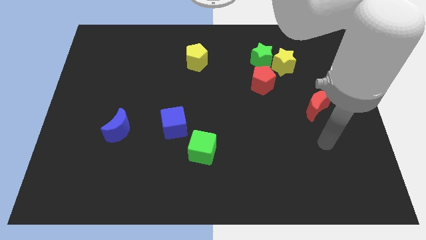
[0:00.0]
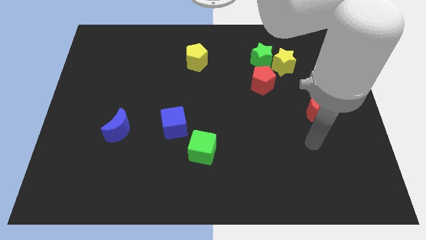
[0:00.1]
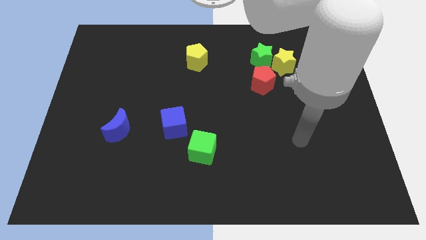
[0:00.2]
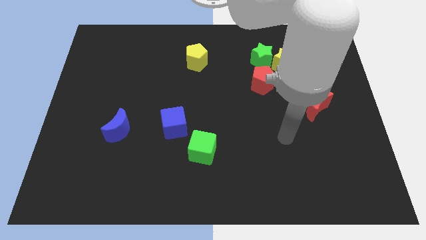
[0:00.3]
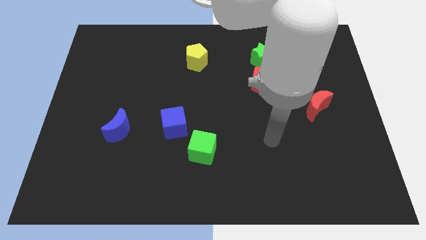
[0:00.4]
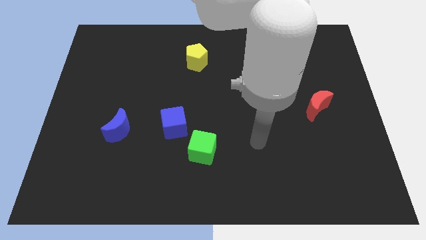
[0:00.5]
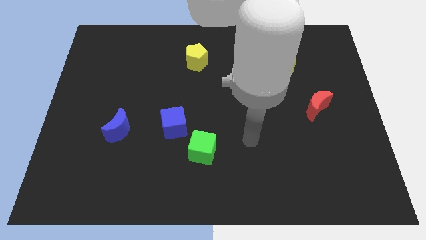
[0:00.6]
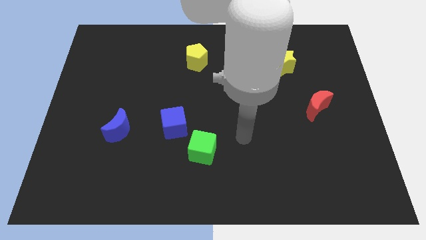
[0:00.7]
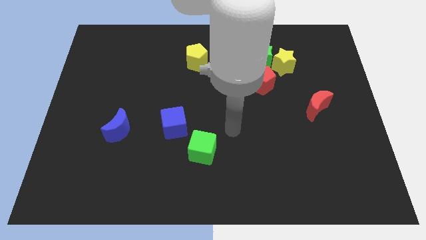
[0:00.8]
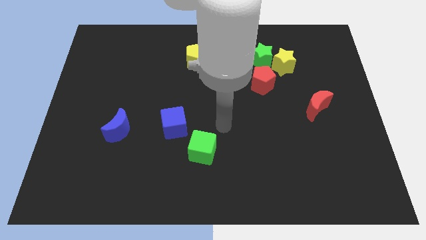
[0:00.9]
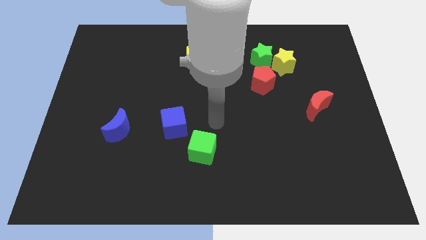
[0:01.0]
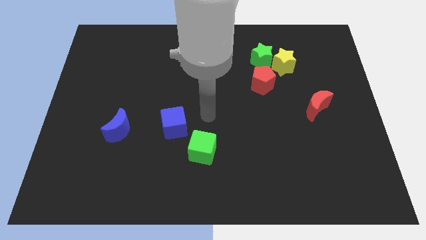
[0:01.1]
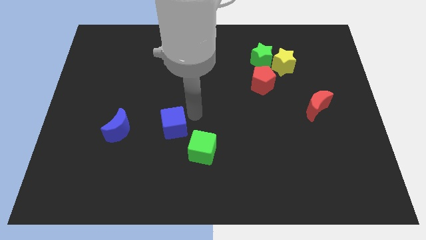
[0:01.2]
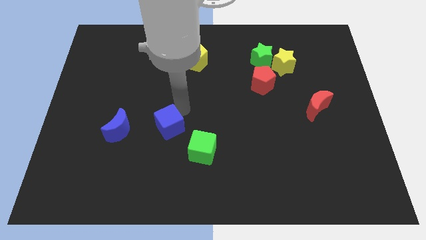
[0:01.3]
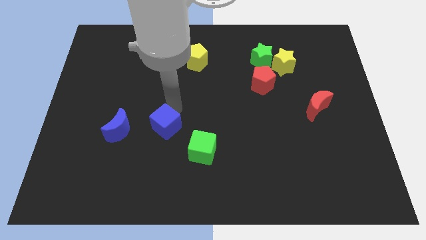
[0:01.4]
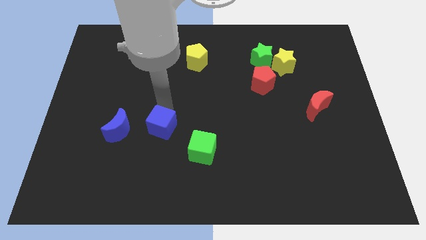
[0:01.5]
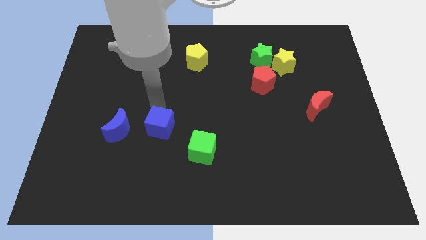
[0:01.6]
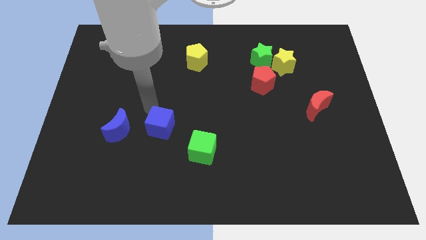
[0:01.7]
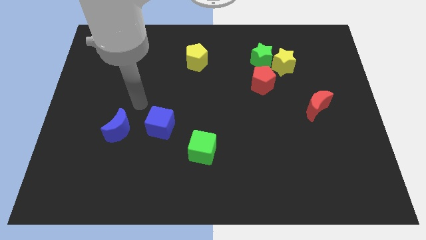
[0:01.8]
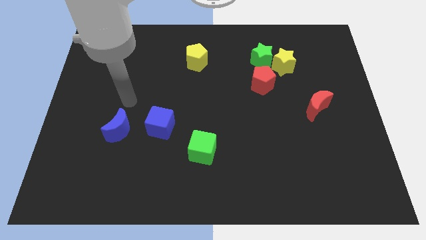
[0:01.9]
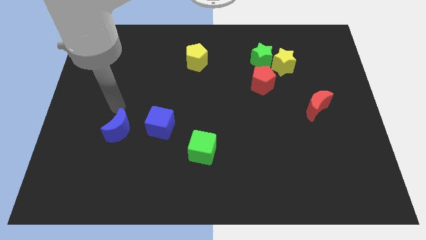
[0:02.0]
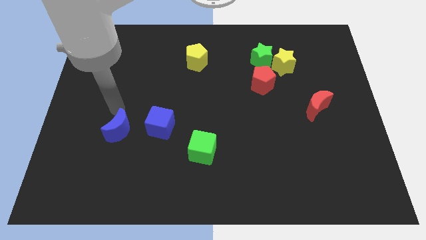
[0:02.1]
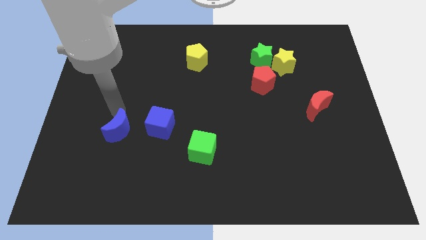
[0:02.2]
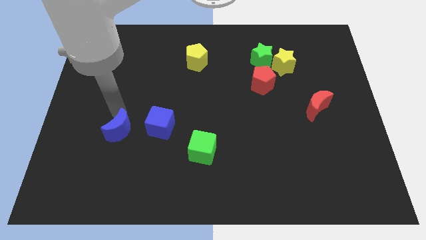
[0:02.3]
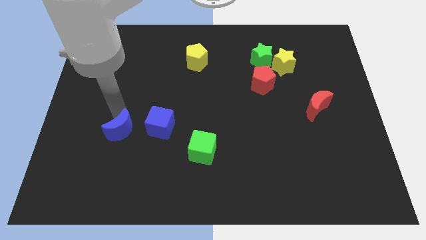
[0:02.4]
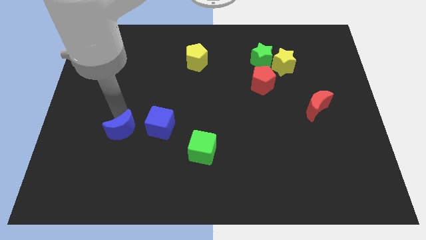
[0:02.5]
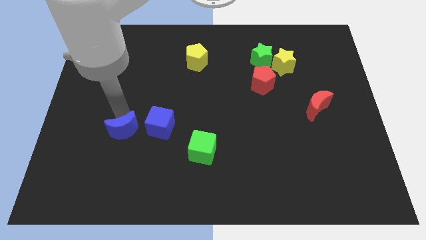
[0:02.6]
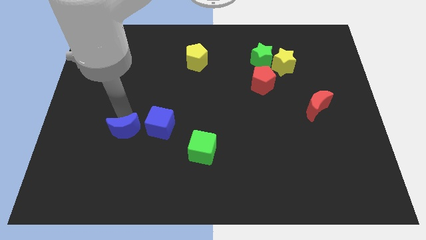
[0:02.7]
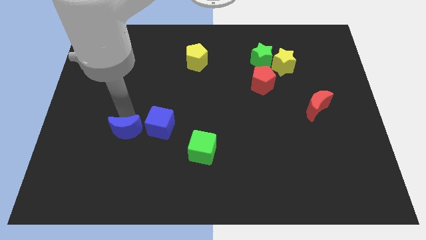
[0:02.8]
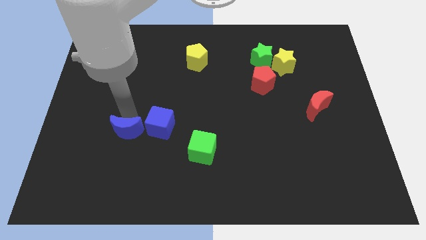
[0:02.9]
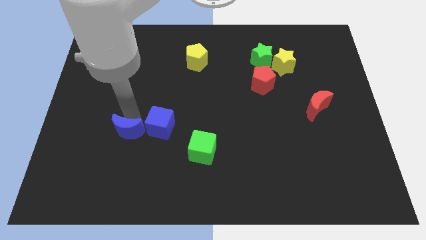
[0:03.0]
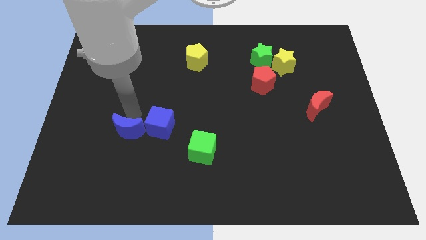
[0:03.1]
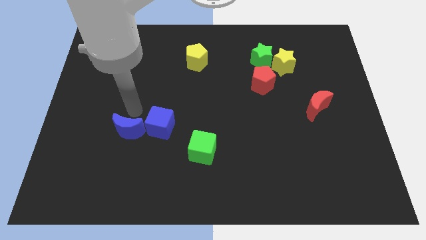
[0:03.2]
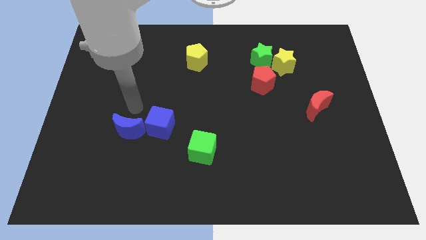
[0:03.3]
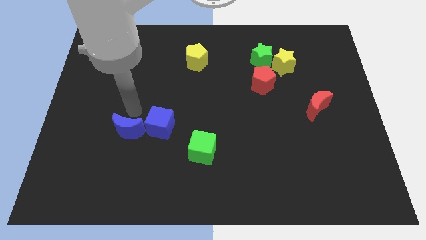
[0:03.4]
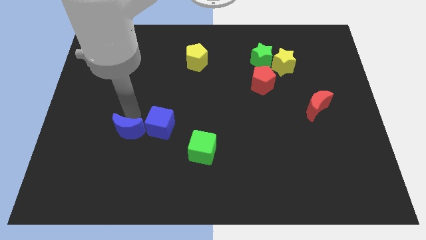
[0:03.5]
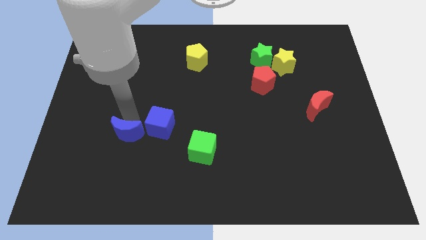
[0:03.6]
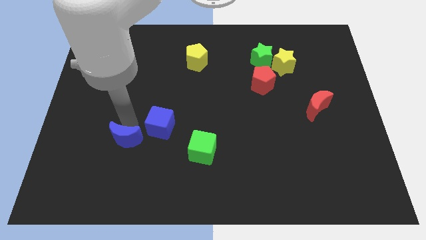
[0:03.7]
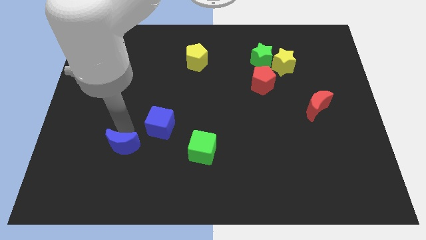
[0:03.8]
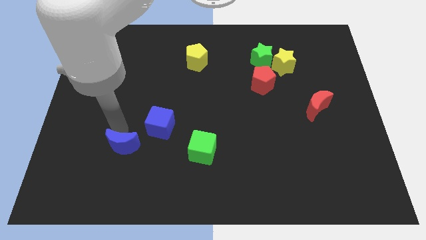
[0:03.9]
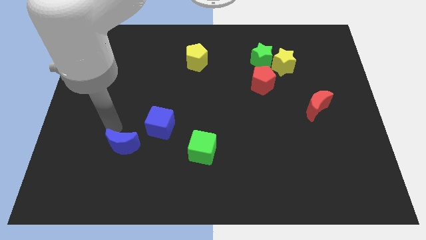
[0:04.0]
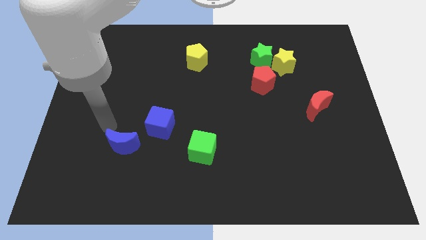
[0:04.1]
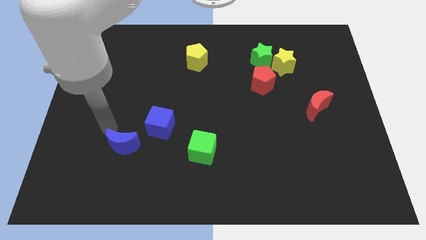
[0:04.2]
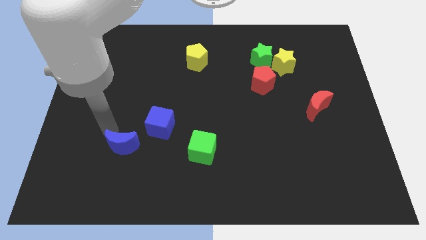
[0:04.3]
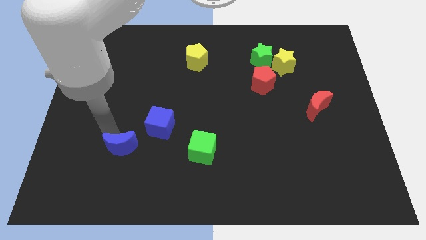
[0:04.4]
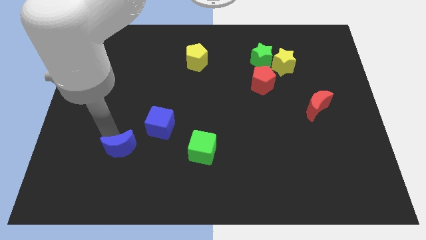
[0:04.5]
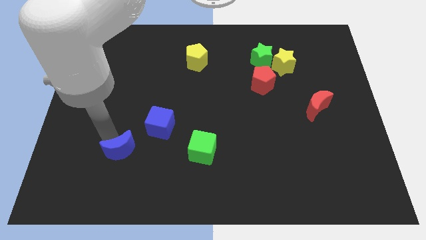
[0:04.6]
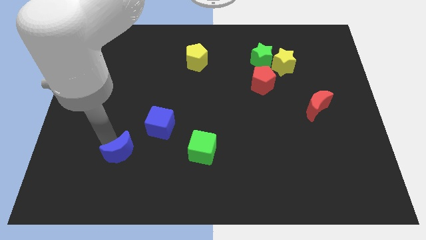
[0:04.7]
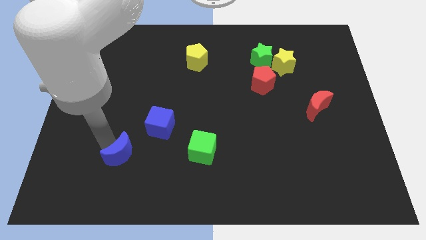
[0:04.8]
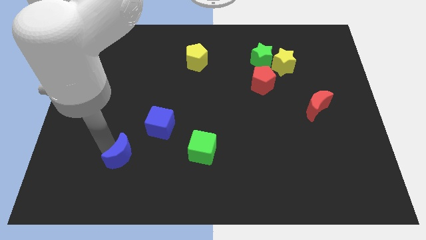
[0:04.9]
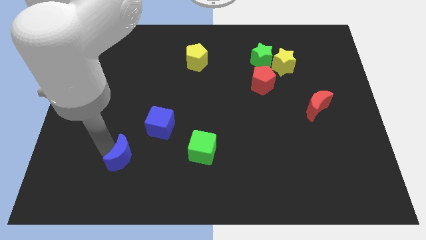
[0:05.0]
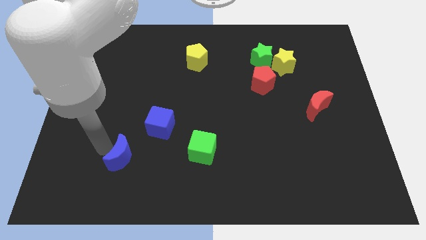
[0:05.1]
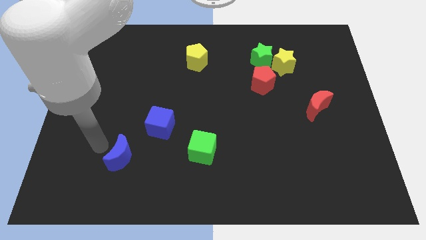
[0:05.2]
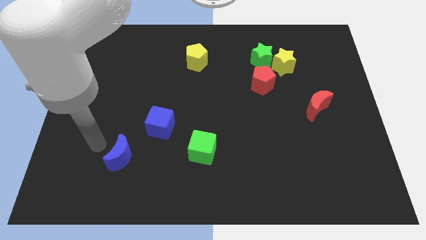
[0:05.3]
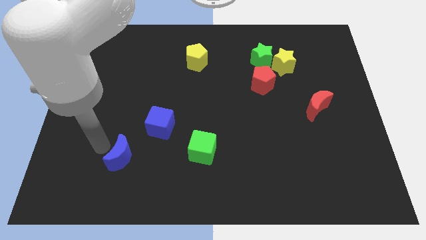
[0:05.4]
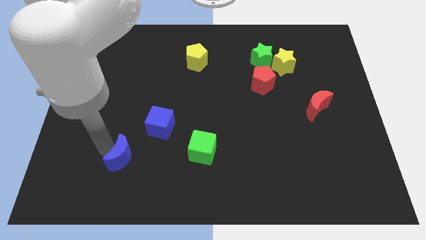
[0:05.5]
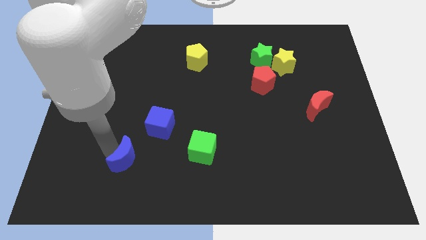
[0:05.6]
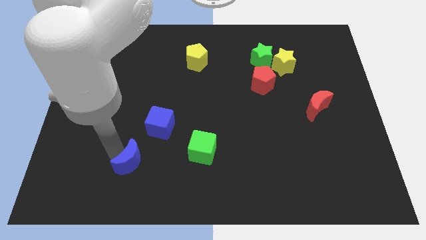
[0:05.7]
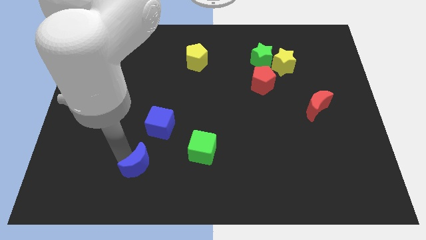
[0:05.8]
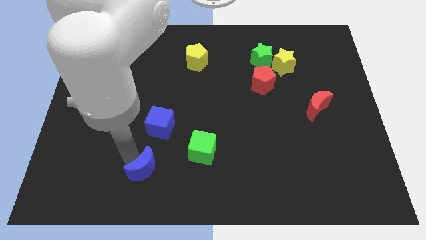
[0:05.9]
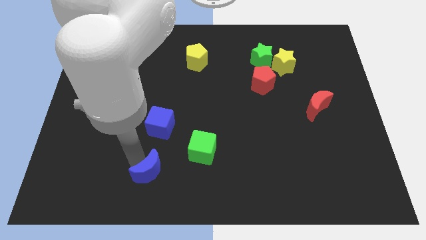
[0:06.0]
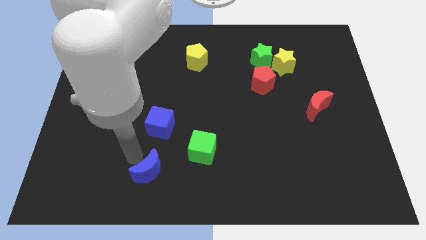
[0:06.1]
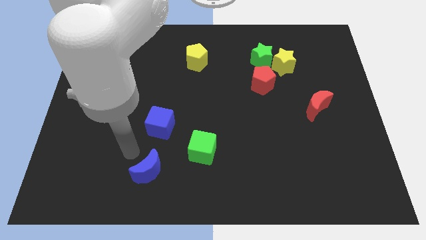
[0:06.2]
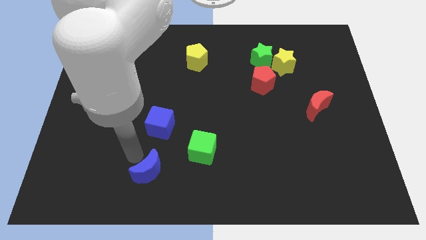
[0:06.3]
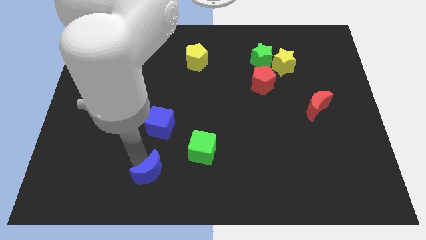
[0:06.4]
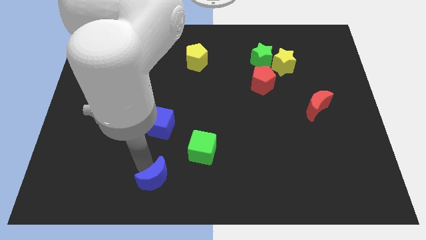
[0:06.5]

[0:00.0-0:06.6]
push the blue moon to the bottom

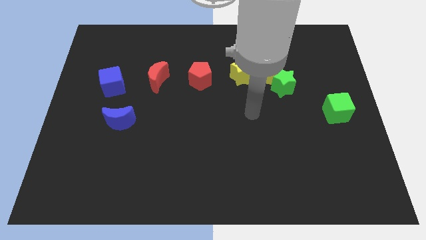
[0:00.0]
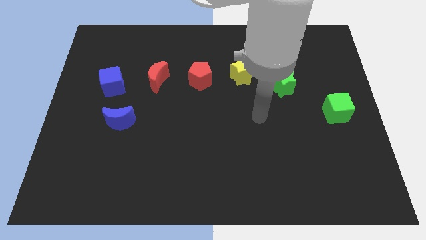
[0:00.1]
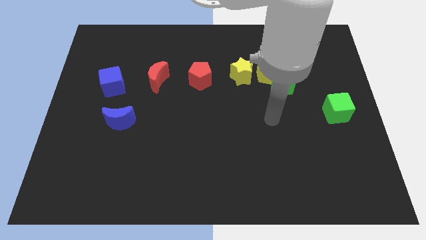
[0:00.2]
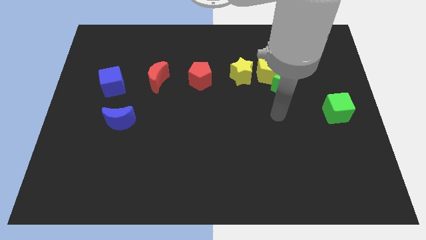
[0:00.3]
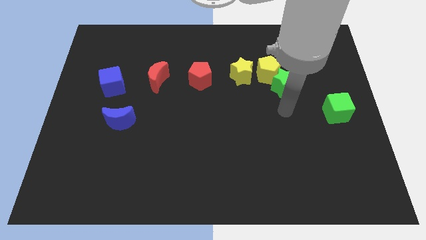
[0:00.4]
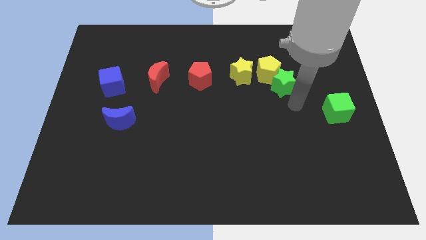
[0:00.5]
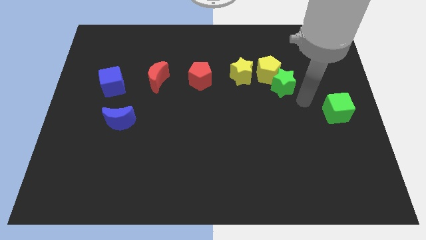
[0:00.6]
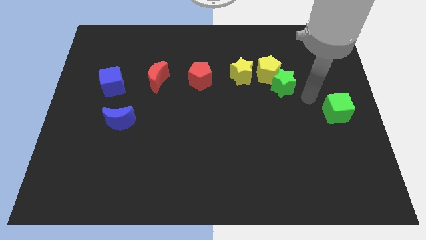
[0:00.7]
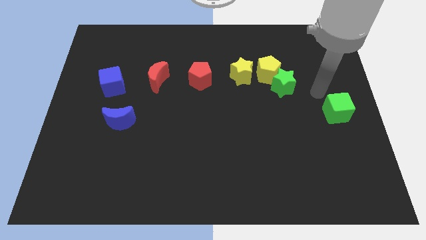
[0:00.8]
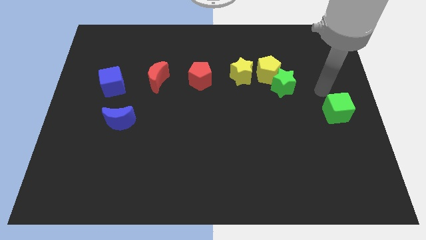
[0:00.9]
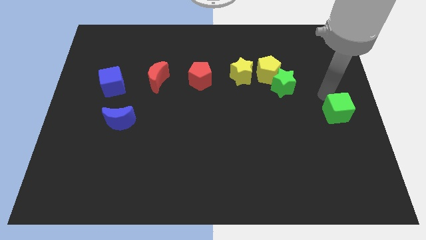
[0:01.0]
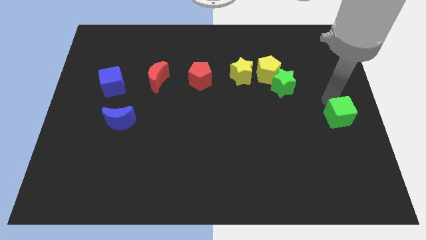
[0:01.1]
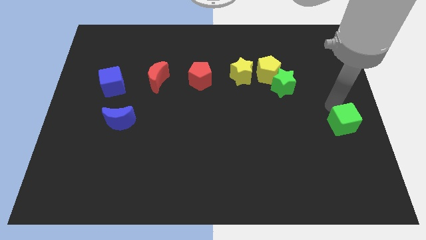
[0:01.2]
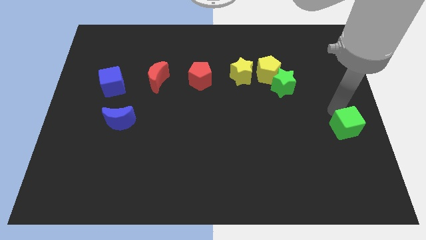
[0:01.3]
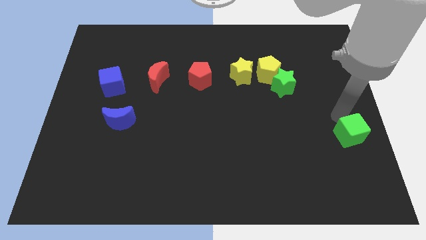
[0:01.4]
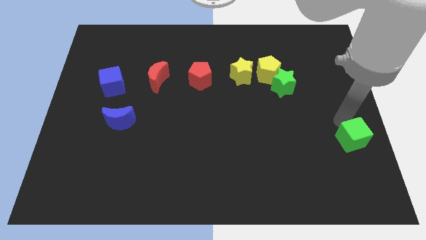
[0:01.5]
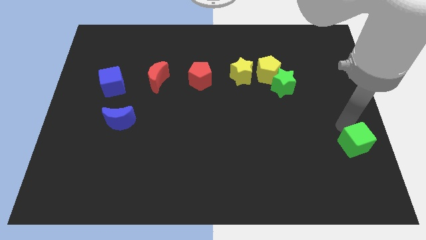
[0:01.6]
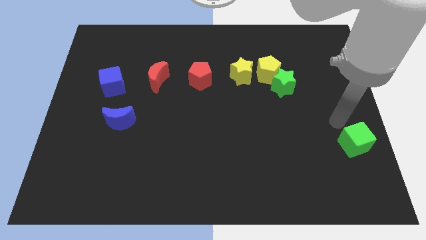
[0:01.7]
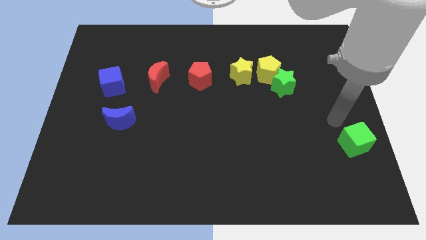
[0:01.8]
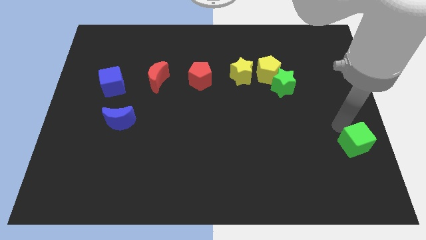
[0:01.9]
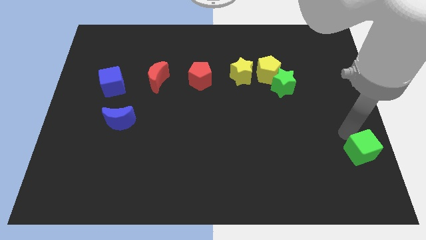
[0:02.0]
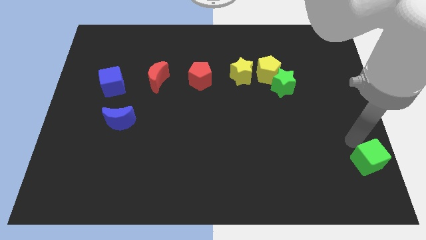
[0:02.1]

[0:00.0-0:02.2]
slide the green cube to the bottom right
